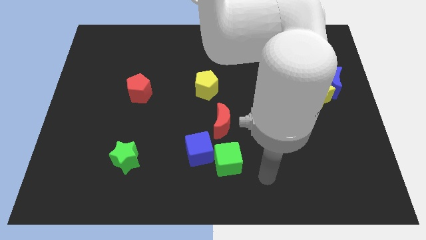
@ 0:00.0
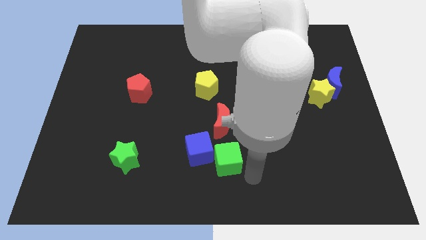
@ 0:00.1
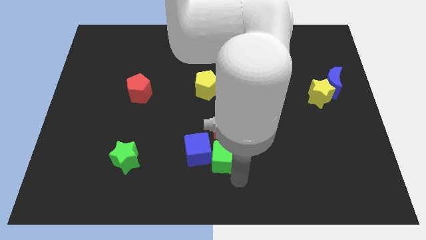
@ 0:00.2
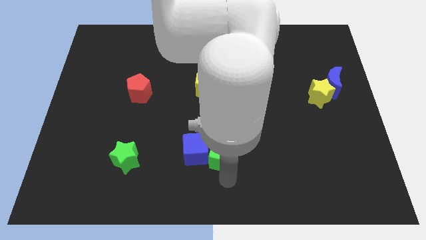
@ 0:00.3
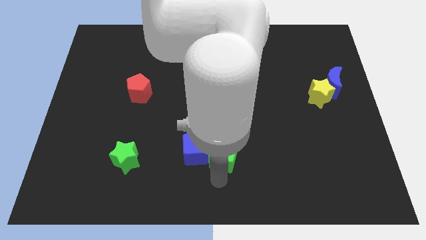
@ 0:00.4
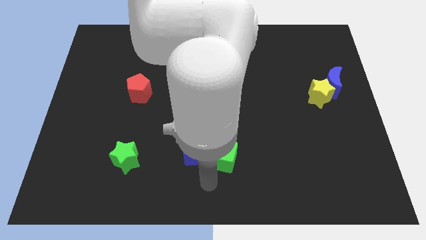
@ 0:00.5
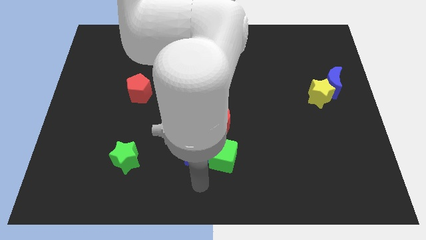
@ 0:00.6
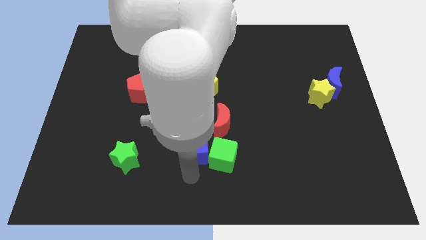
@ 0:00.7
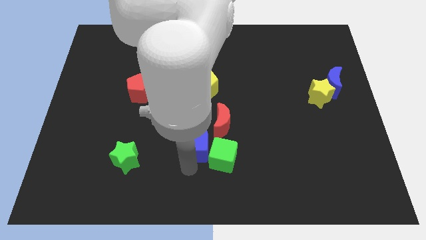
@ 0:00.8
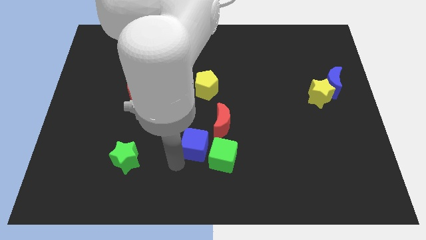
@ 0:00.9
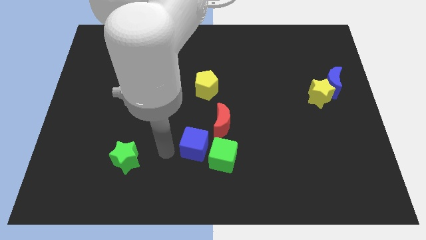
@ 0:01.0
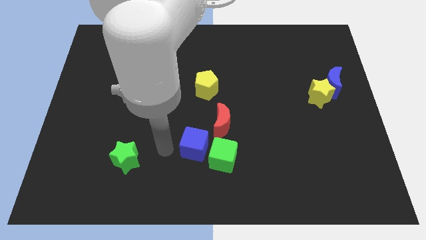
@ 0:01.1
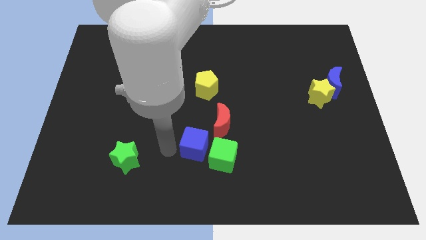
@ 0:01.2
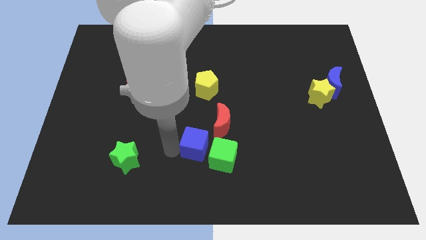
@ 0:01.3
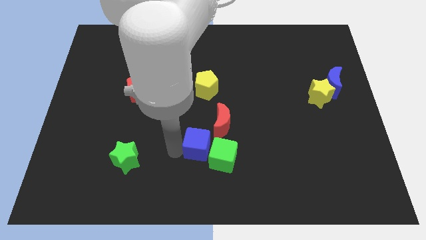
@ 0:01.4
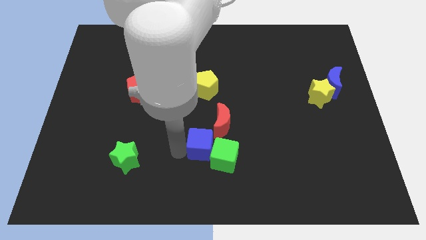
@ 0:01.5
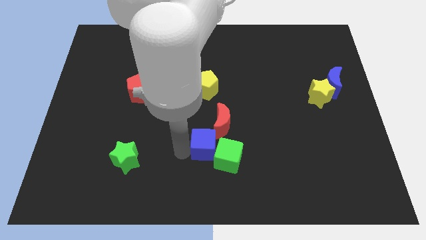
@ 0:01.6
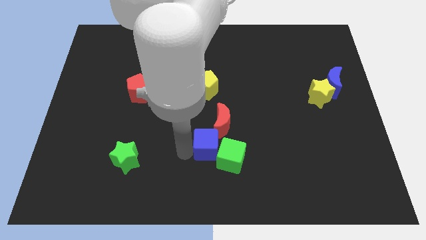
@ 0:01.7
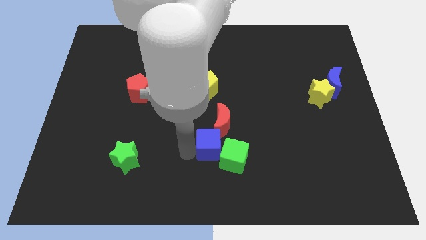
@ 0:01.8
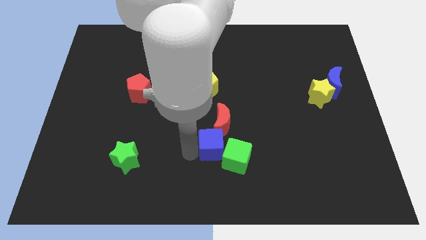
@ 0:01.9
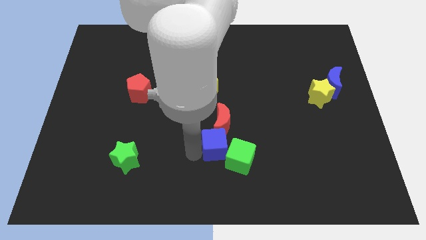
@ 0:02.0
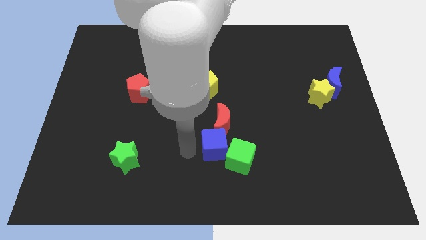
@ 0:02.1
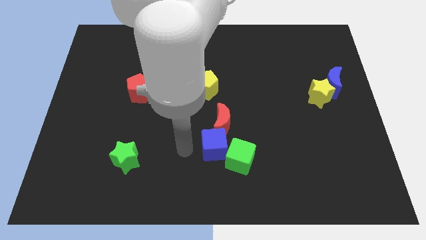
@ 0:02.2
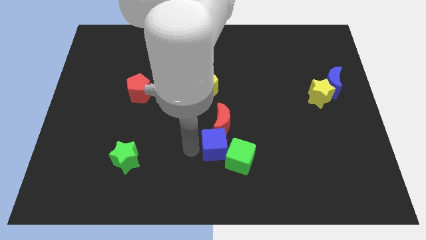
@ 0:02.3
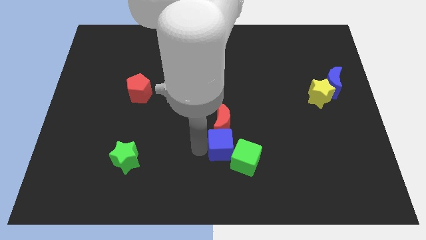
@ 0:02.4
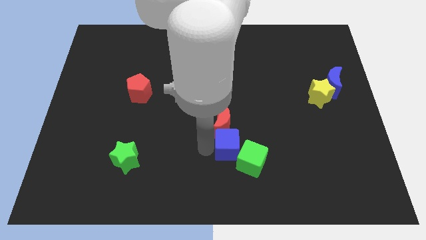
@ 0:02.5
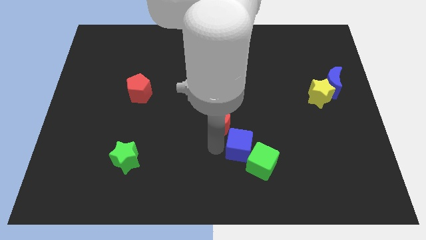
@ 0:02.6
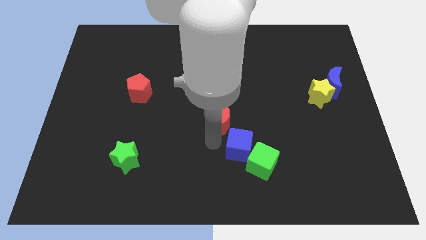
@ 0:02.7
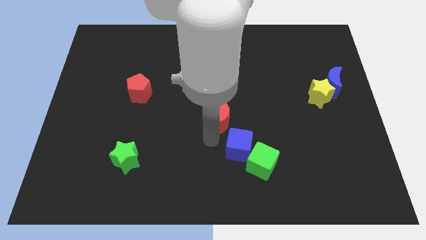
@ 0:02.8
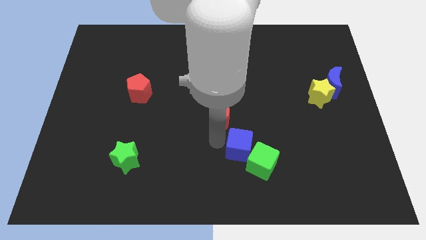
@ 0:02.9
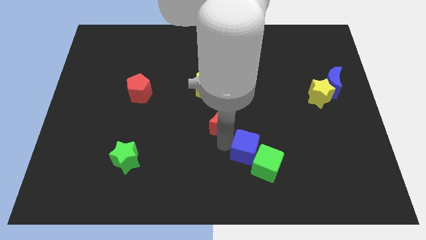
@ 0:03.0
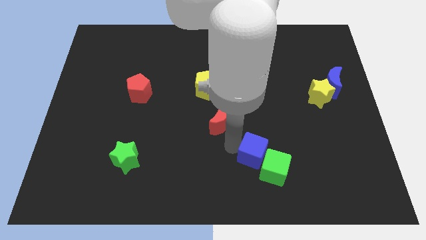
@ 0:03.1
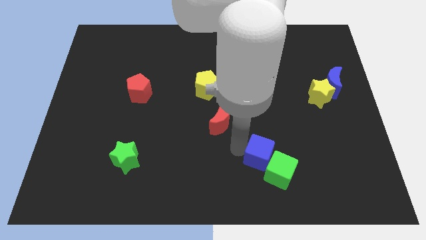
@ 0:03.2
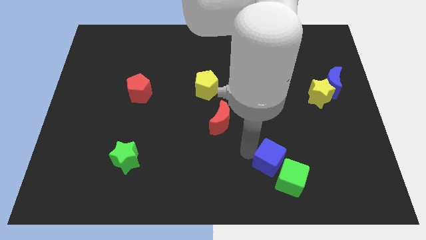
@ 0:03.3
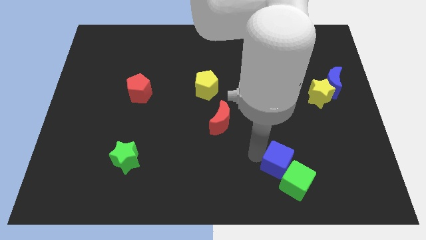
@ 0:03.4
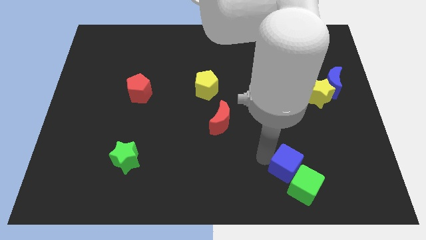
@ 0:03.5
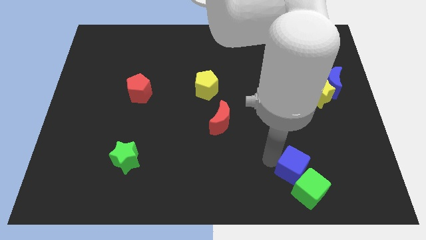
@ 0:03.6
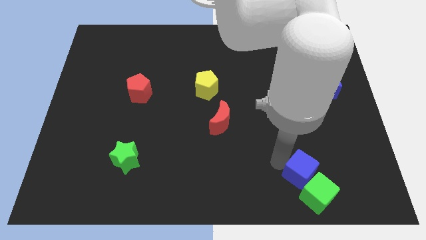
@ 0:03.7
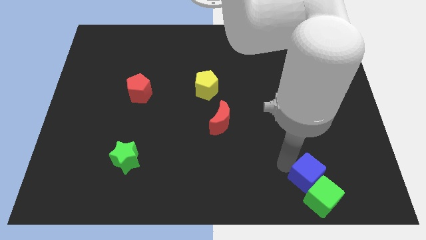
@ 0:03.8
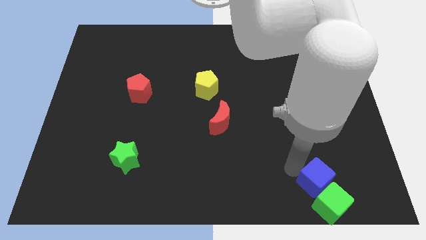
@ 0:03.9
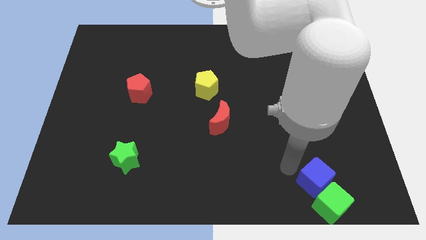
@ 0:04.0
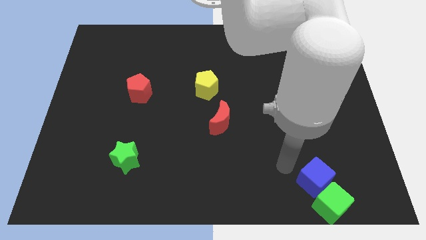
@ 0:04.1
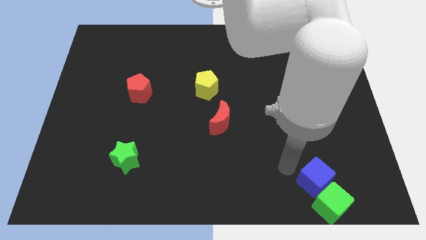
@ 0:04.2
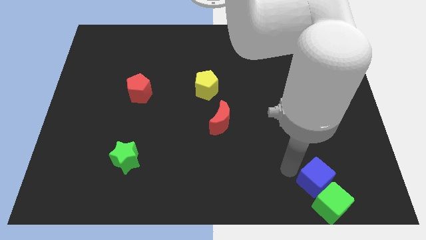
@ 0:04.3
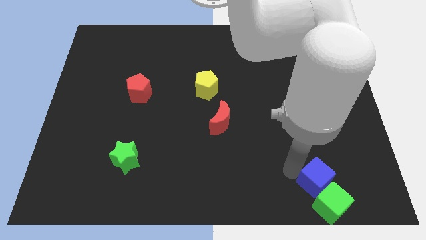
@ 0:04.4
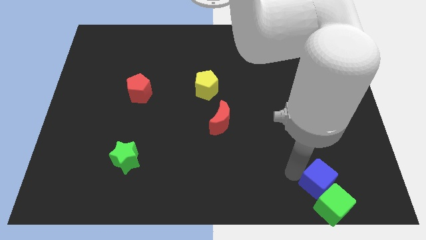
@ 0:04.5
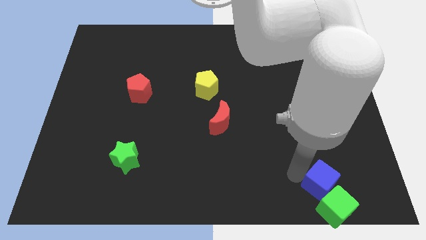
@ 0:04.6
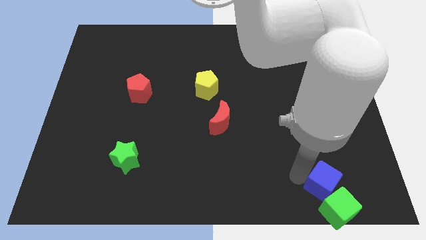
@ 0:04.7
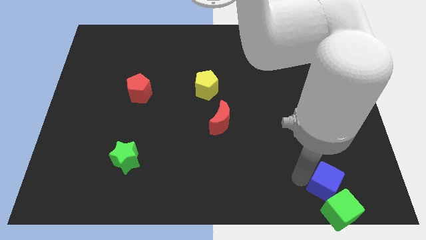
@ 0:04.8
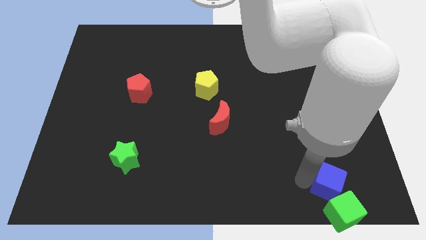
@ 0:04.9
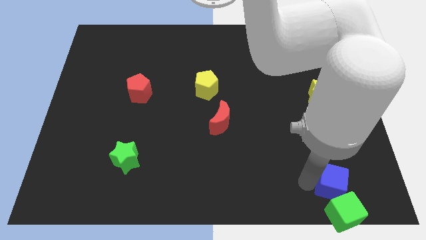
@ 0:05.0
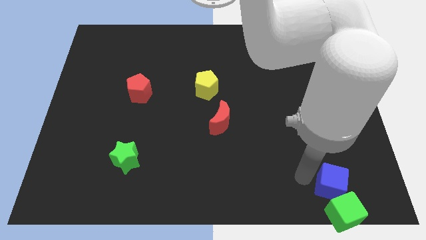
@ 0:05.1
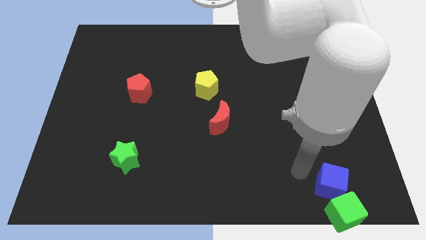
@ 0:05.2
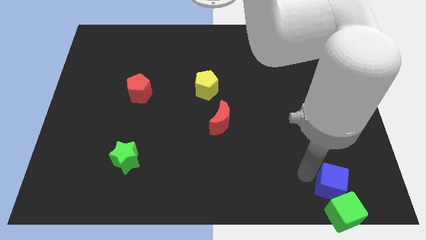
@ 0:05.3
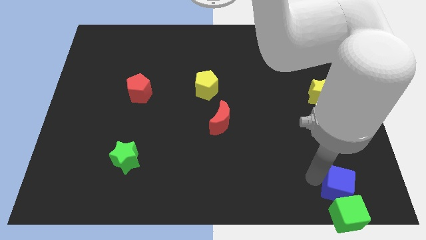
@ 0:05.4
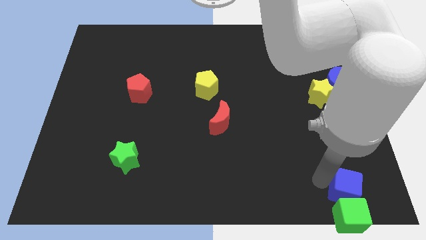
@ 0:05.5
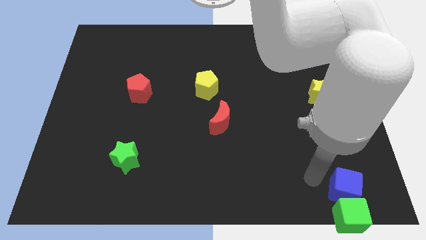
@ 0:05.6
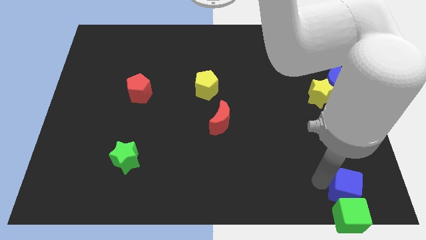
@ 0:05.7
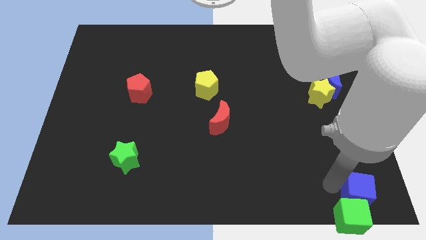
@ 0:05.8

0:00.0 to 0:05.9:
move the blue cube to the bottom right

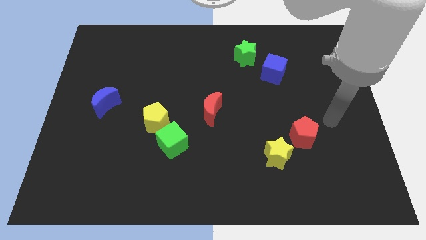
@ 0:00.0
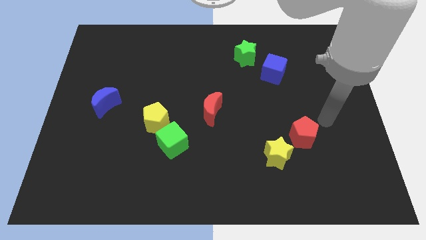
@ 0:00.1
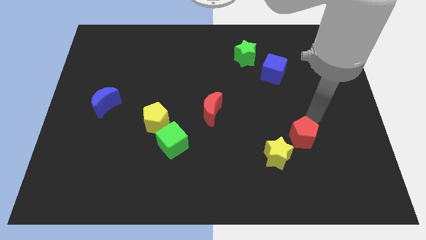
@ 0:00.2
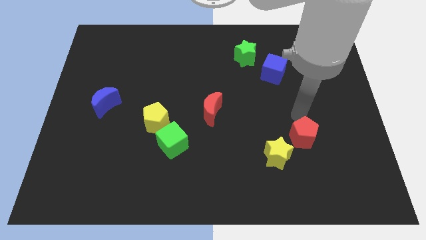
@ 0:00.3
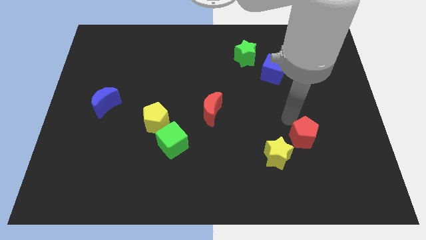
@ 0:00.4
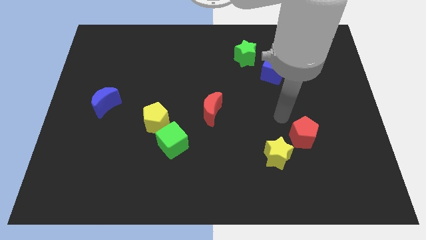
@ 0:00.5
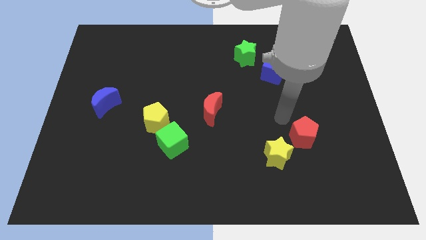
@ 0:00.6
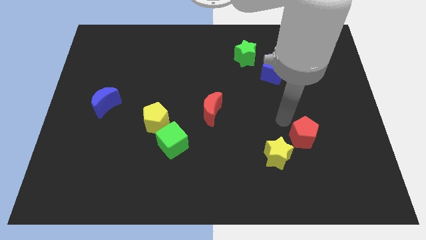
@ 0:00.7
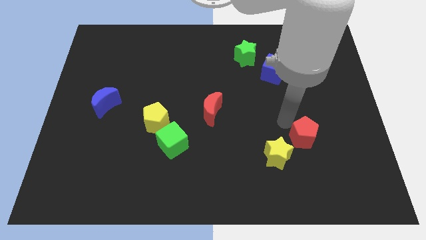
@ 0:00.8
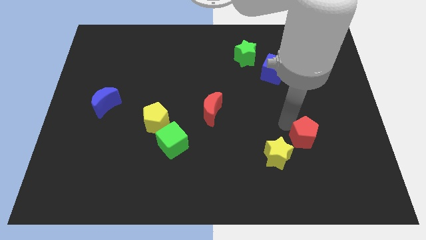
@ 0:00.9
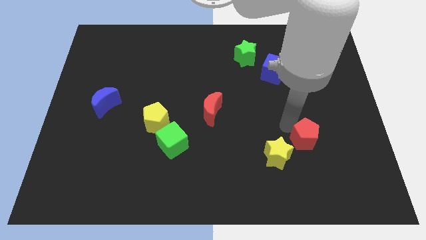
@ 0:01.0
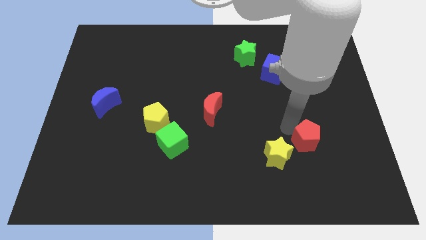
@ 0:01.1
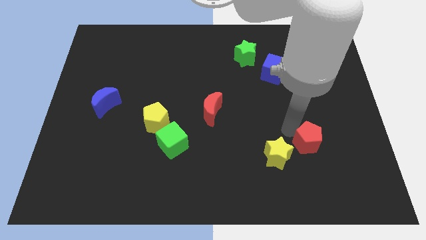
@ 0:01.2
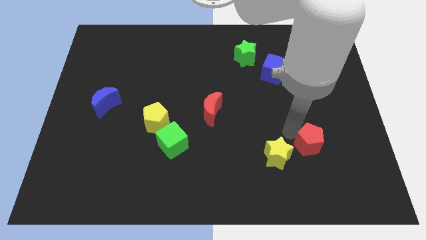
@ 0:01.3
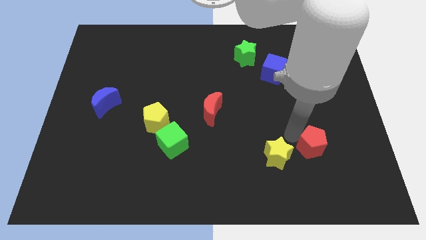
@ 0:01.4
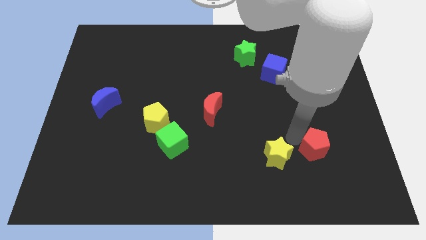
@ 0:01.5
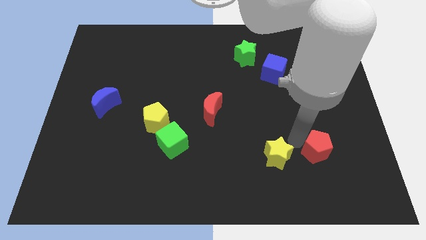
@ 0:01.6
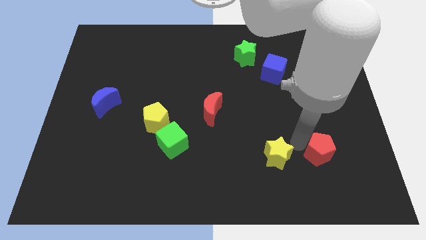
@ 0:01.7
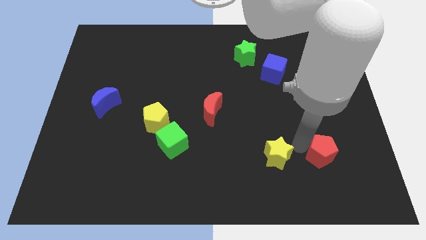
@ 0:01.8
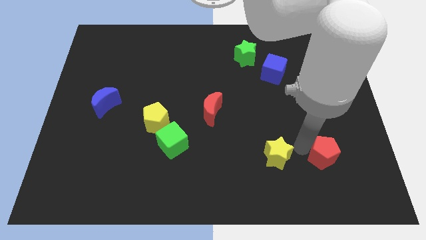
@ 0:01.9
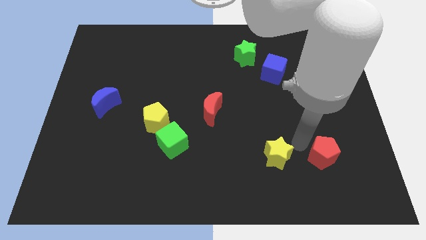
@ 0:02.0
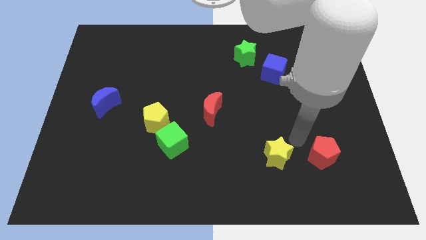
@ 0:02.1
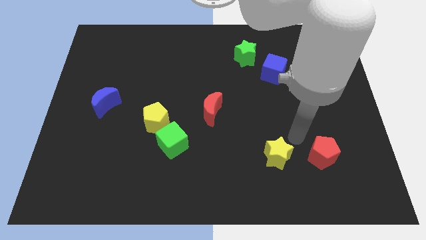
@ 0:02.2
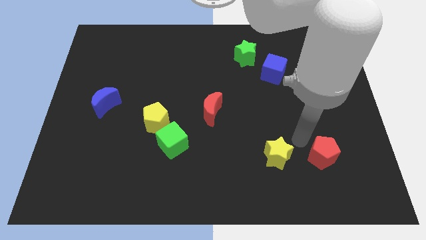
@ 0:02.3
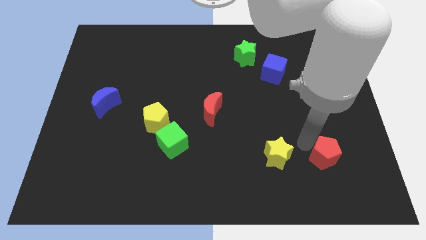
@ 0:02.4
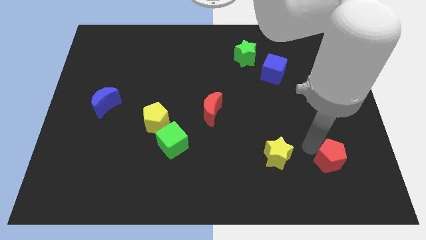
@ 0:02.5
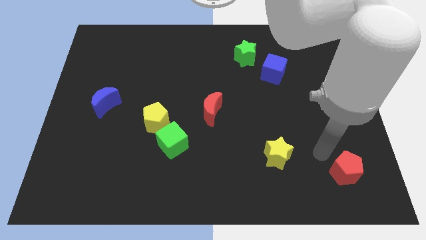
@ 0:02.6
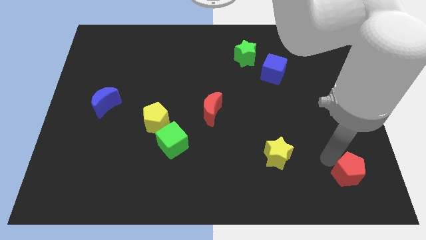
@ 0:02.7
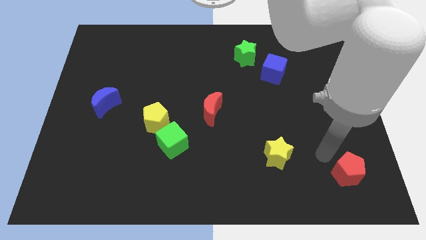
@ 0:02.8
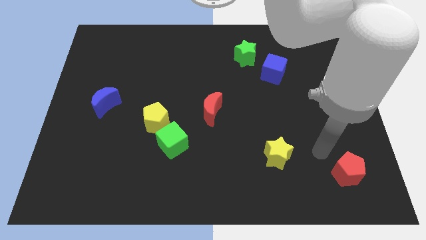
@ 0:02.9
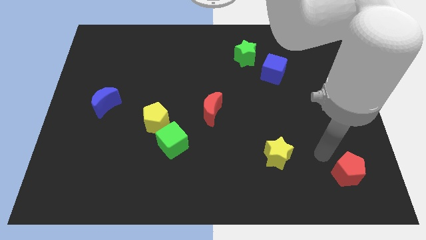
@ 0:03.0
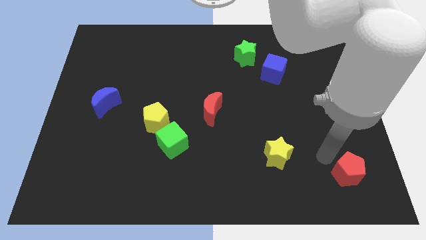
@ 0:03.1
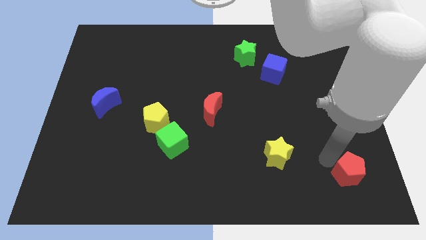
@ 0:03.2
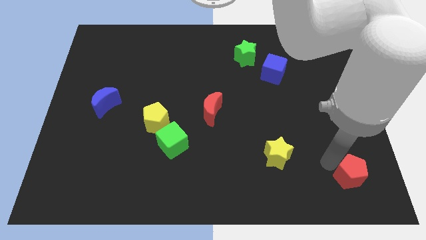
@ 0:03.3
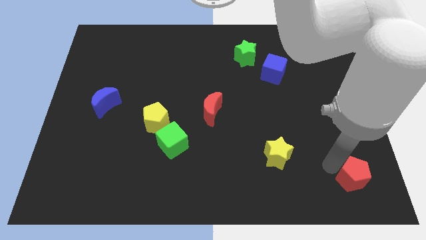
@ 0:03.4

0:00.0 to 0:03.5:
put the red pentagon to the bottom right of the board
